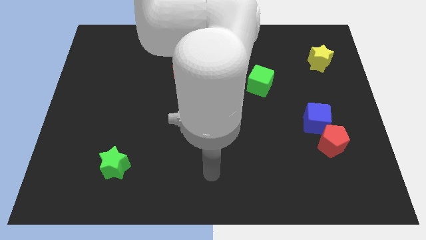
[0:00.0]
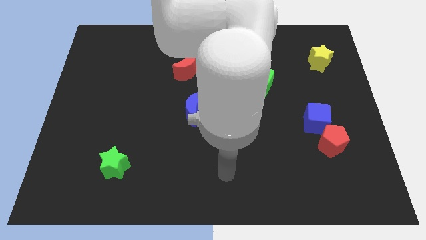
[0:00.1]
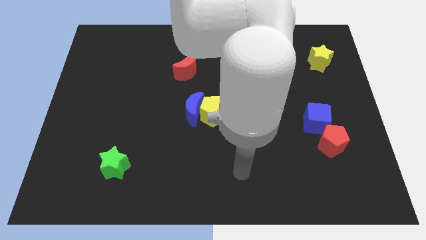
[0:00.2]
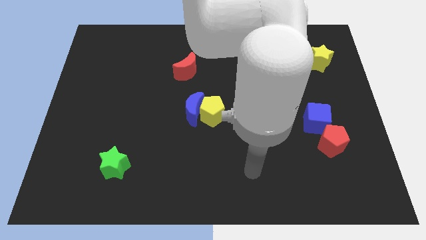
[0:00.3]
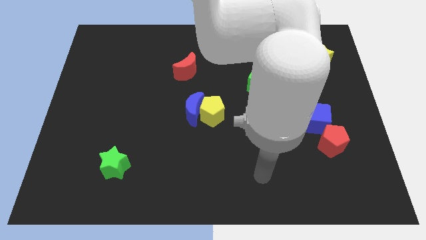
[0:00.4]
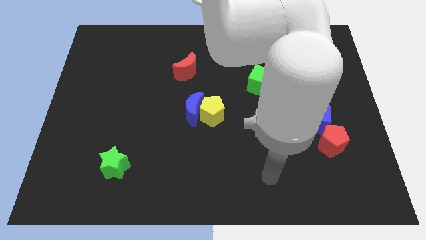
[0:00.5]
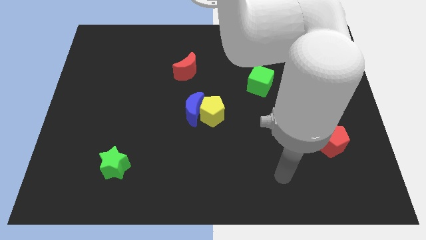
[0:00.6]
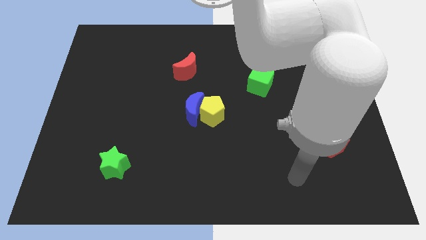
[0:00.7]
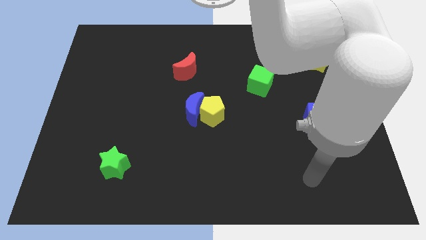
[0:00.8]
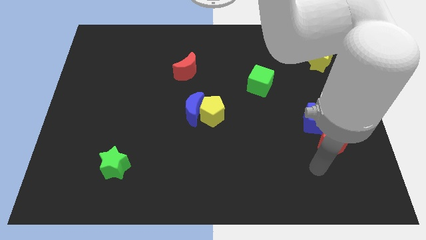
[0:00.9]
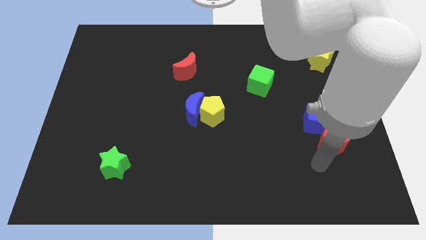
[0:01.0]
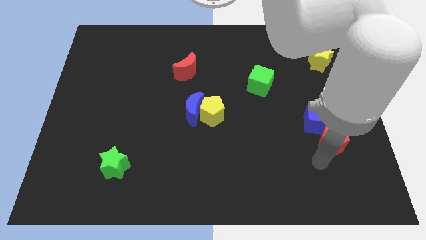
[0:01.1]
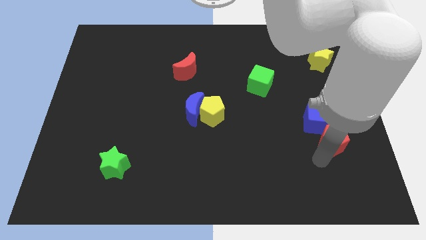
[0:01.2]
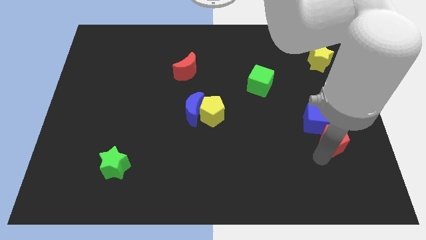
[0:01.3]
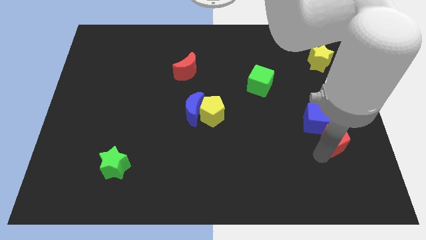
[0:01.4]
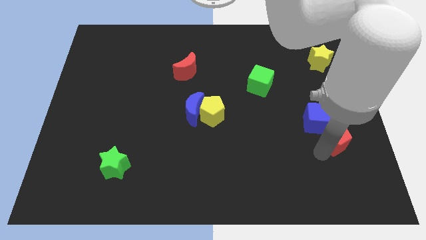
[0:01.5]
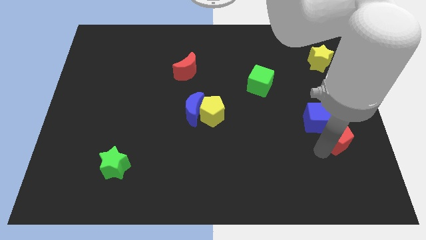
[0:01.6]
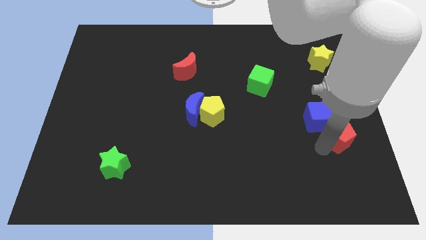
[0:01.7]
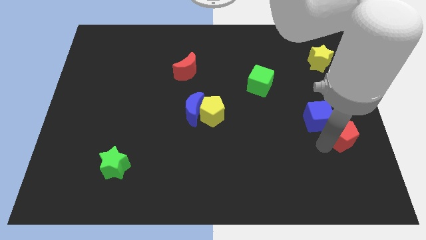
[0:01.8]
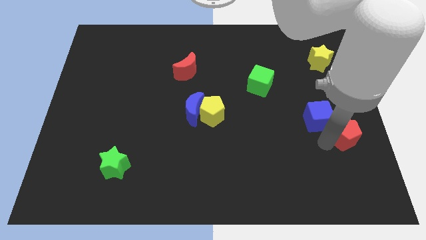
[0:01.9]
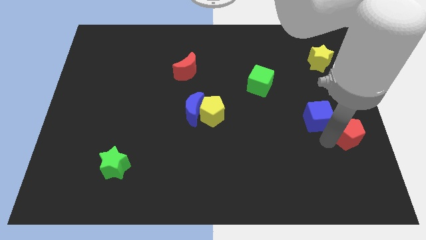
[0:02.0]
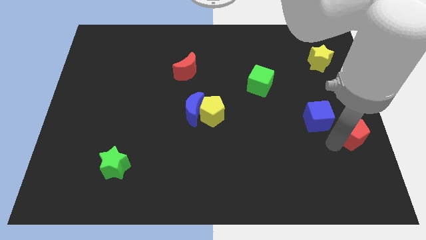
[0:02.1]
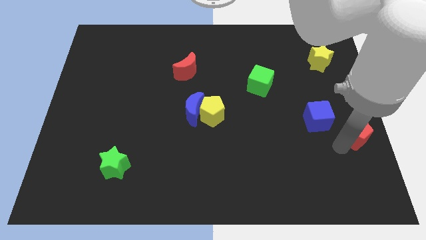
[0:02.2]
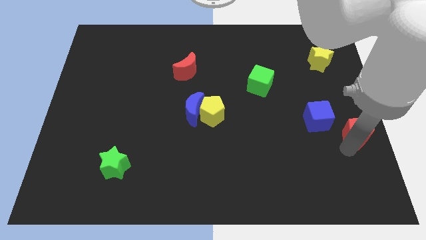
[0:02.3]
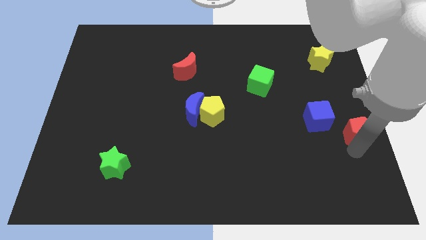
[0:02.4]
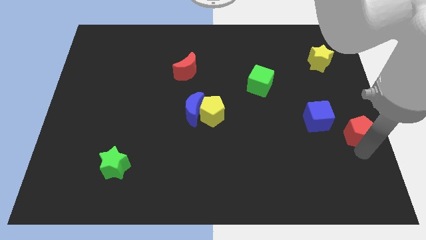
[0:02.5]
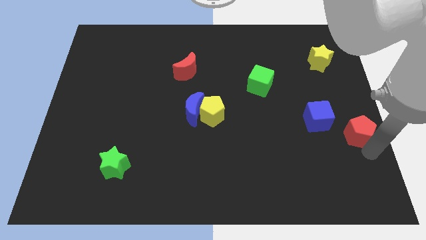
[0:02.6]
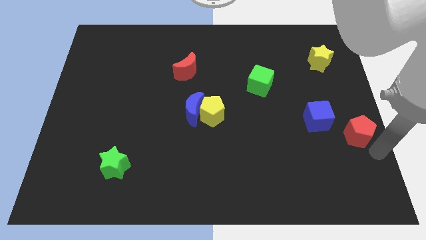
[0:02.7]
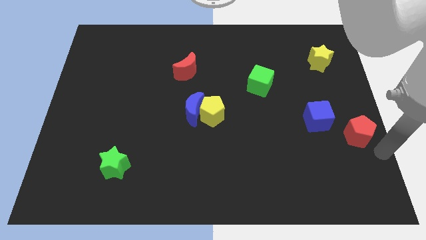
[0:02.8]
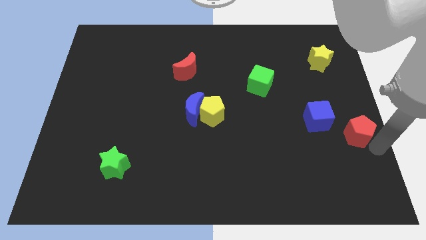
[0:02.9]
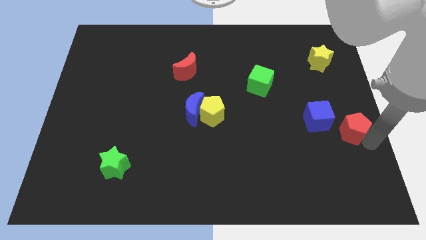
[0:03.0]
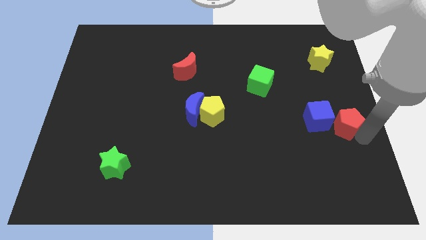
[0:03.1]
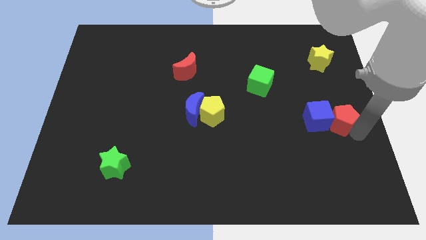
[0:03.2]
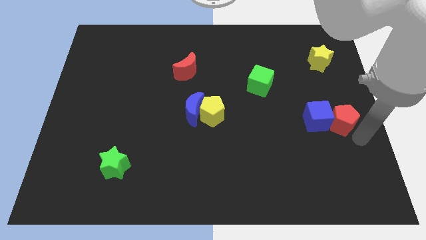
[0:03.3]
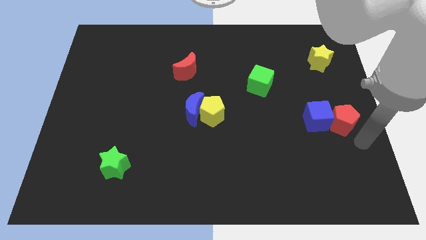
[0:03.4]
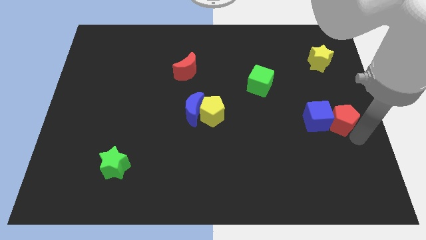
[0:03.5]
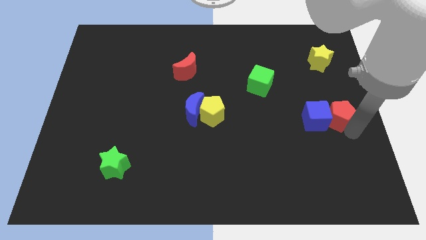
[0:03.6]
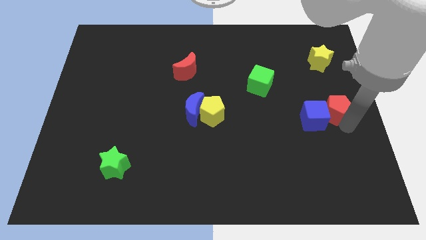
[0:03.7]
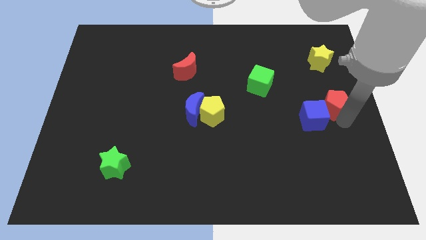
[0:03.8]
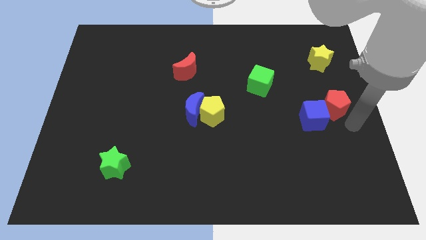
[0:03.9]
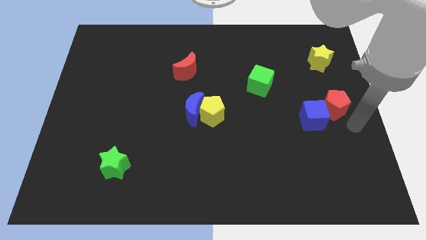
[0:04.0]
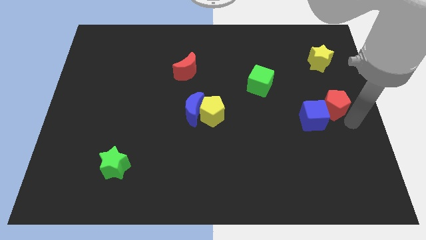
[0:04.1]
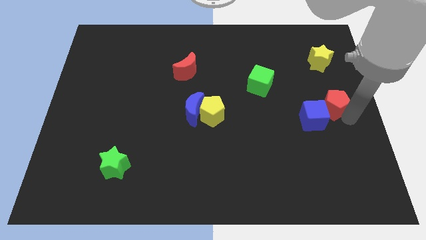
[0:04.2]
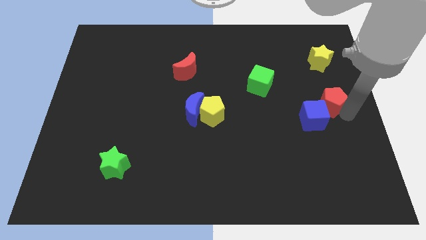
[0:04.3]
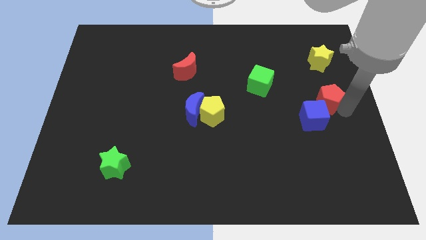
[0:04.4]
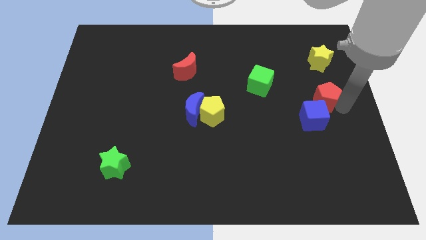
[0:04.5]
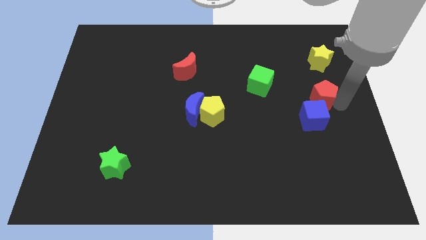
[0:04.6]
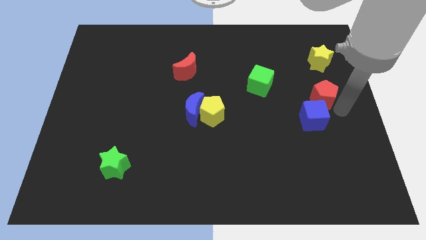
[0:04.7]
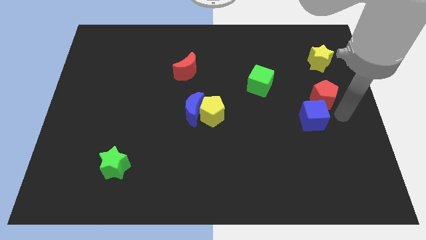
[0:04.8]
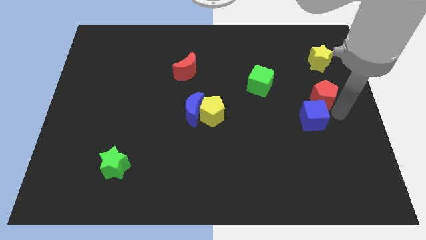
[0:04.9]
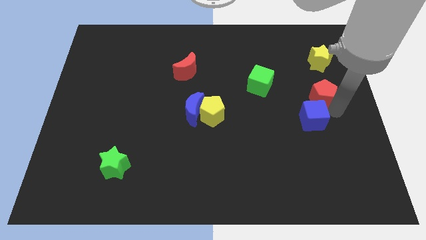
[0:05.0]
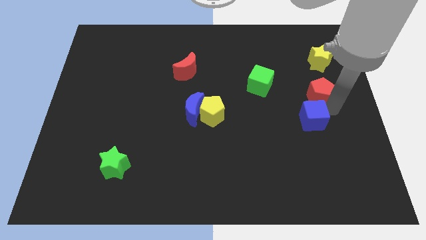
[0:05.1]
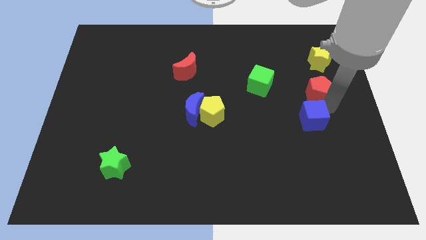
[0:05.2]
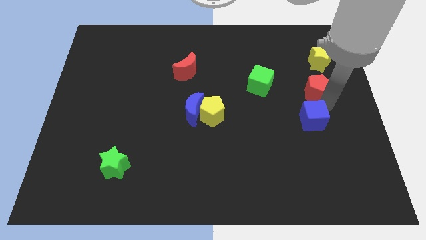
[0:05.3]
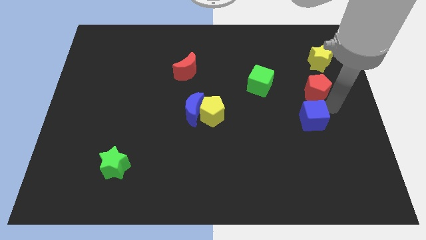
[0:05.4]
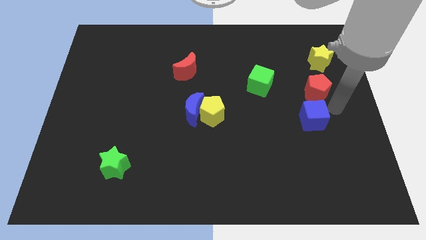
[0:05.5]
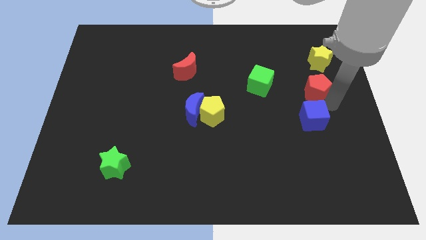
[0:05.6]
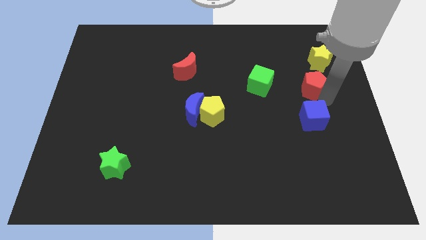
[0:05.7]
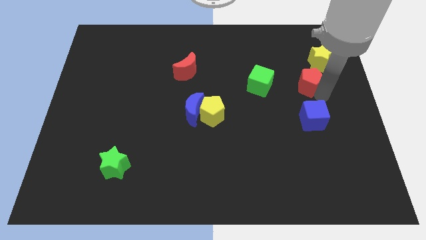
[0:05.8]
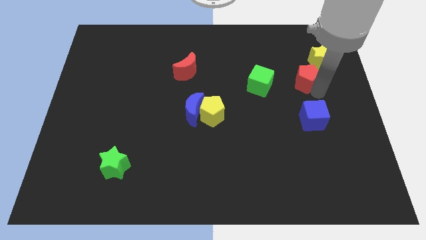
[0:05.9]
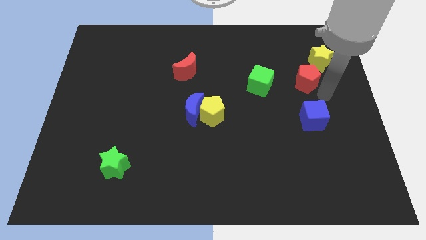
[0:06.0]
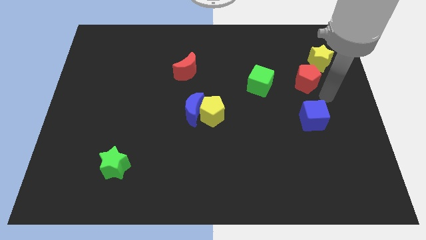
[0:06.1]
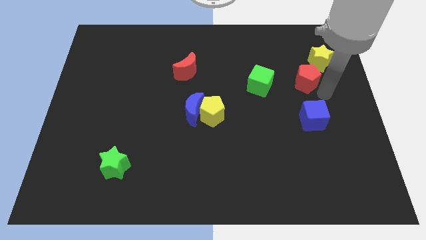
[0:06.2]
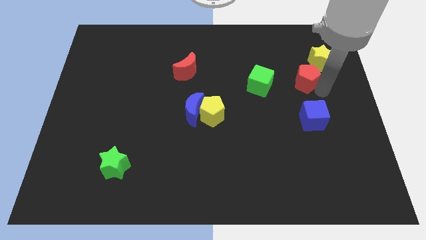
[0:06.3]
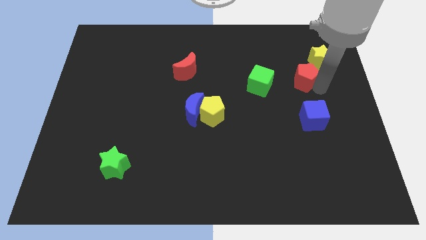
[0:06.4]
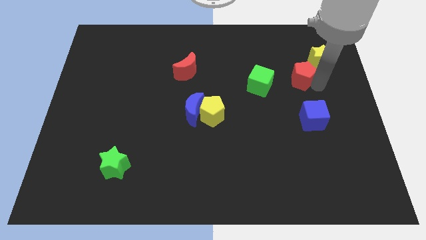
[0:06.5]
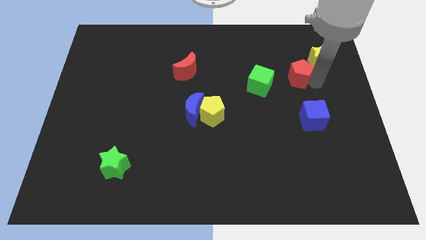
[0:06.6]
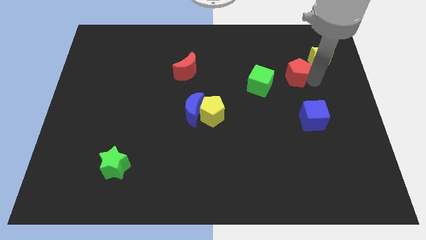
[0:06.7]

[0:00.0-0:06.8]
put the red pentagon left of the yellow star

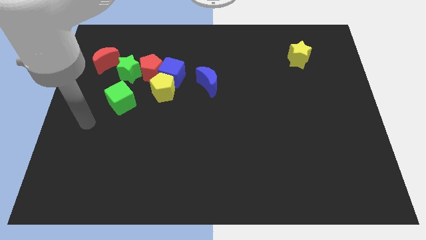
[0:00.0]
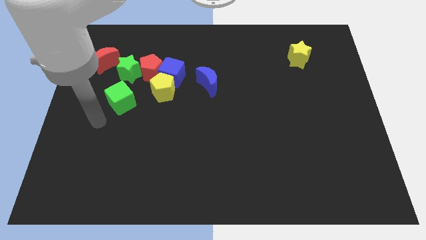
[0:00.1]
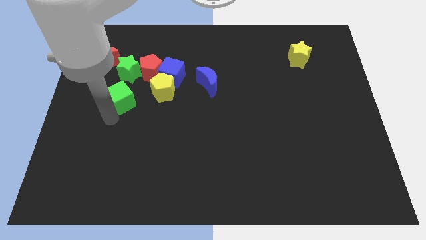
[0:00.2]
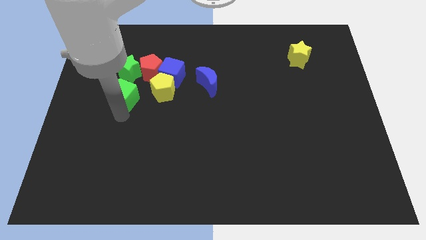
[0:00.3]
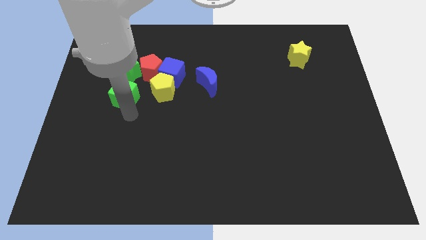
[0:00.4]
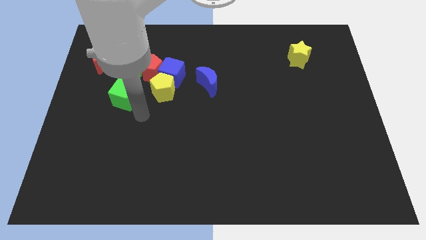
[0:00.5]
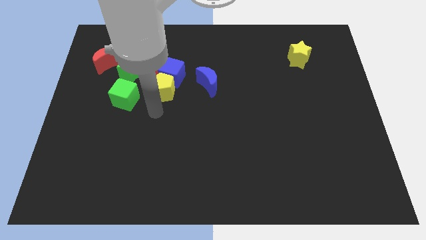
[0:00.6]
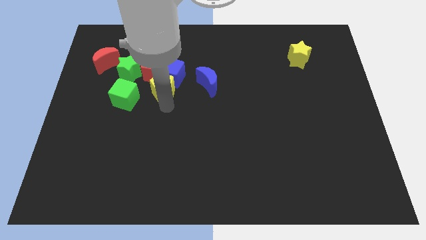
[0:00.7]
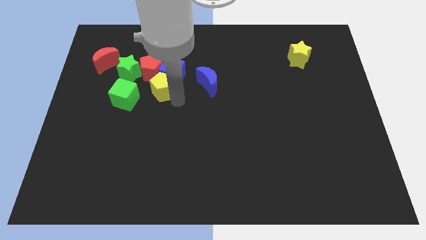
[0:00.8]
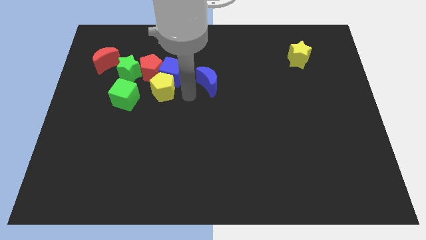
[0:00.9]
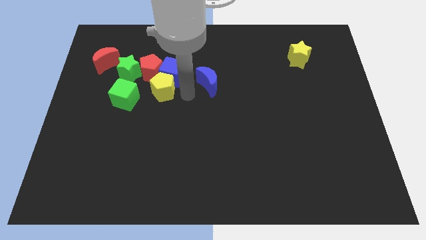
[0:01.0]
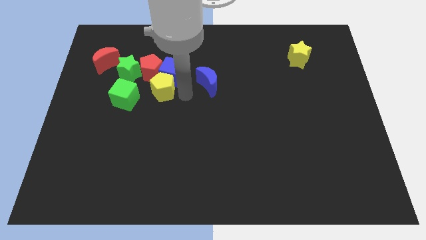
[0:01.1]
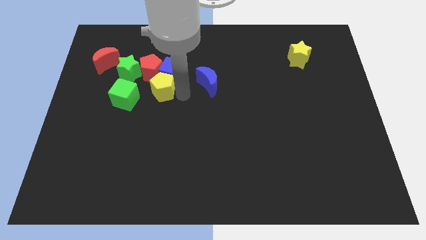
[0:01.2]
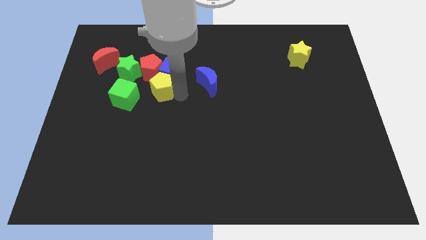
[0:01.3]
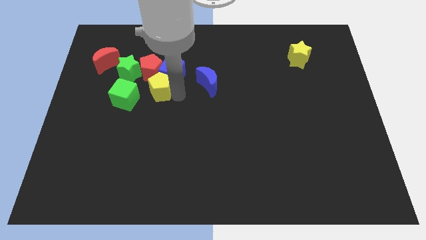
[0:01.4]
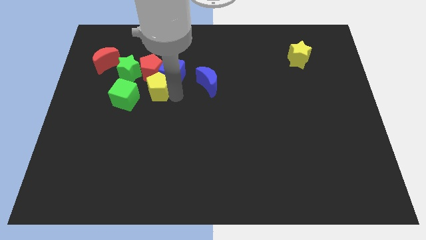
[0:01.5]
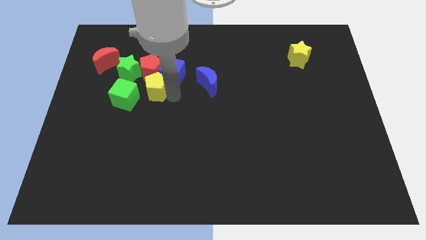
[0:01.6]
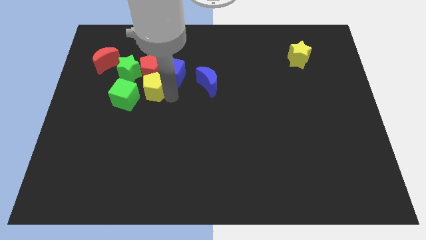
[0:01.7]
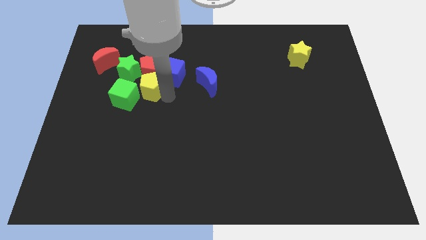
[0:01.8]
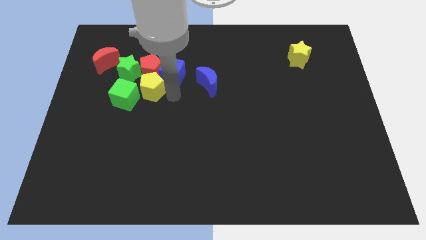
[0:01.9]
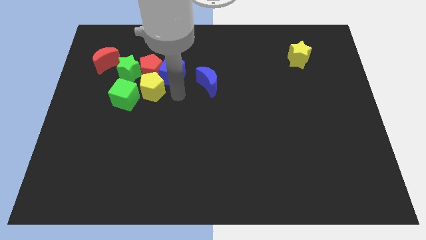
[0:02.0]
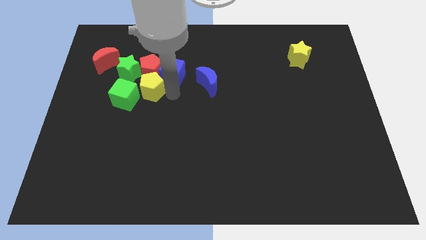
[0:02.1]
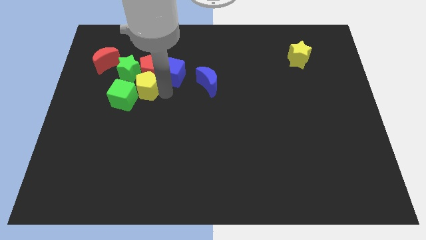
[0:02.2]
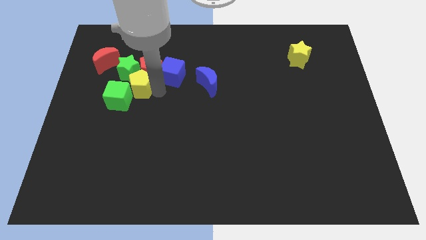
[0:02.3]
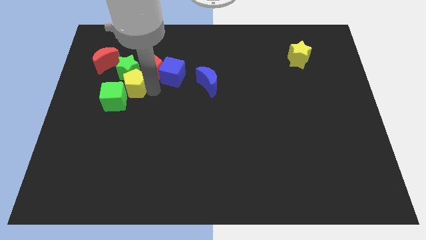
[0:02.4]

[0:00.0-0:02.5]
push the yellow pentagon above the green cube
